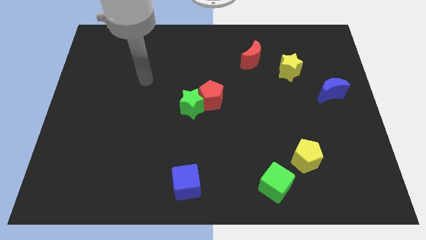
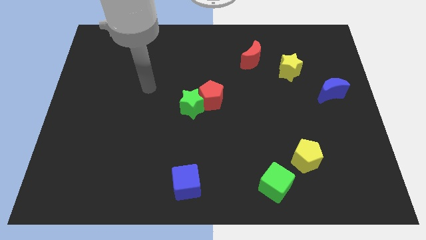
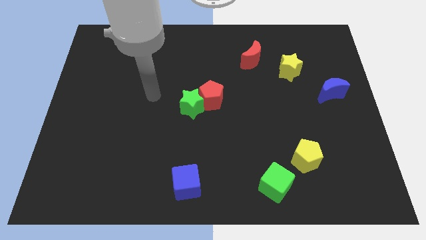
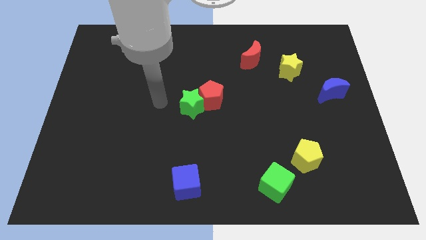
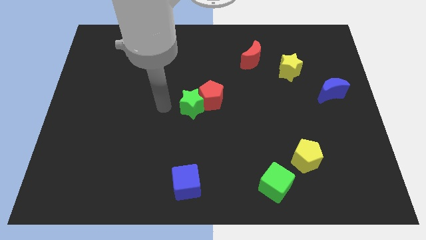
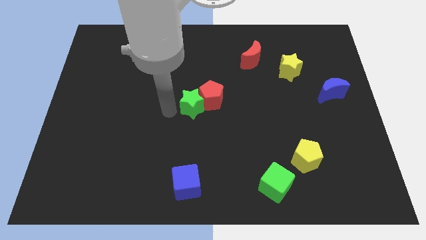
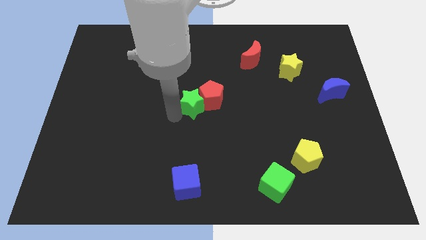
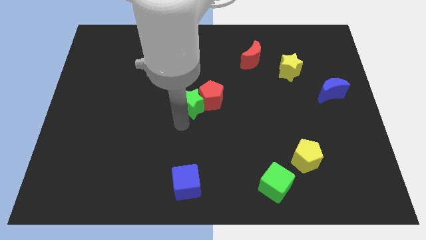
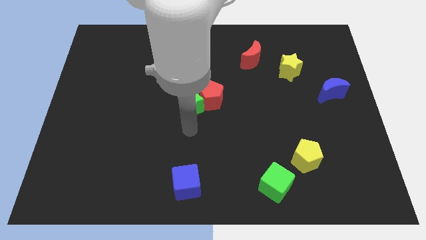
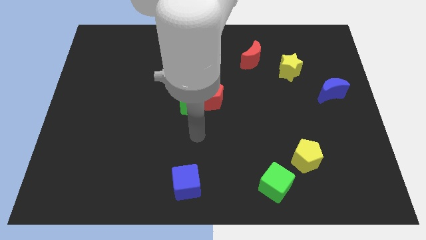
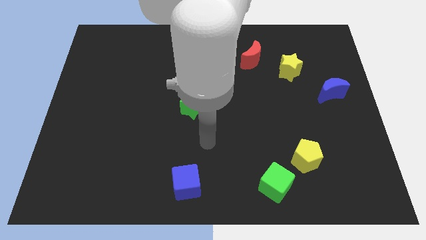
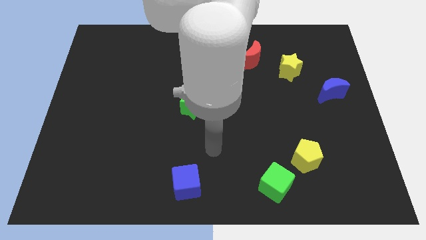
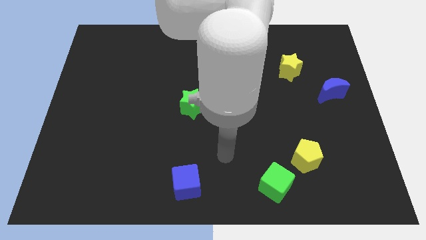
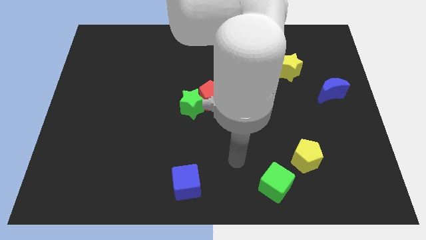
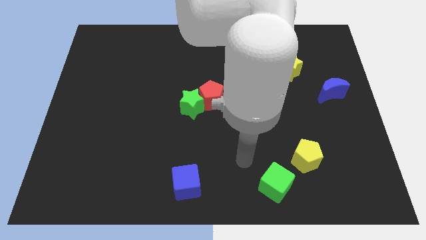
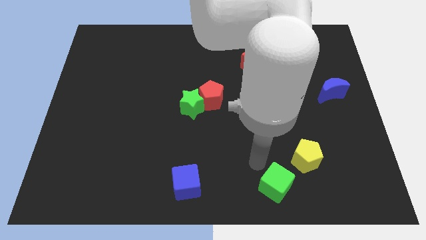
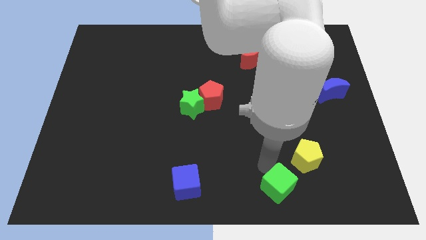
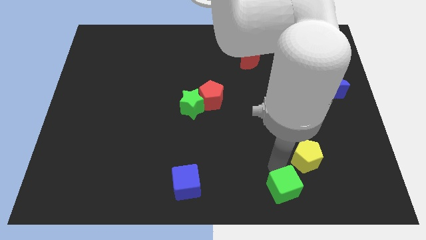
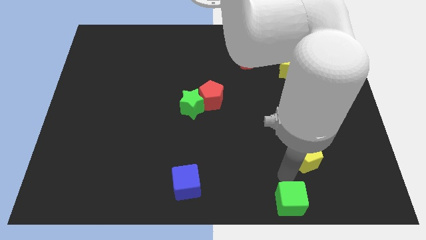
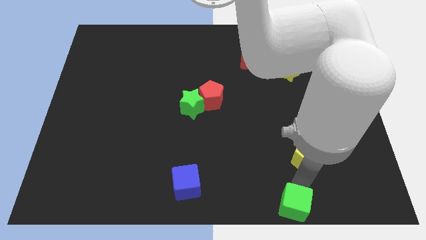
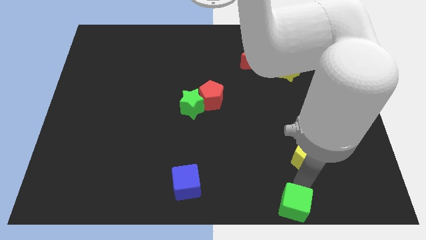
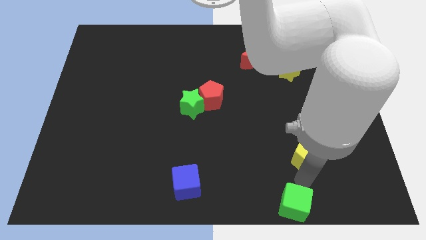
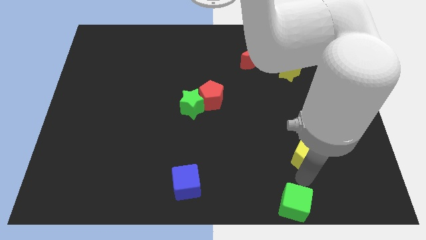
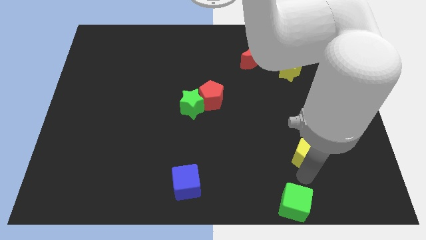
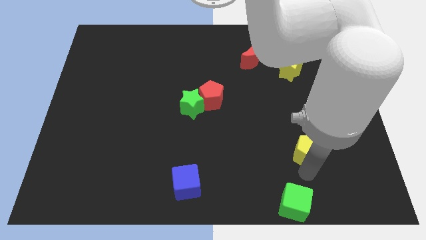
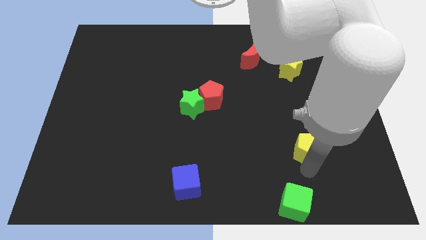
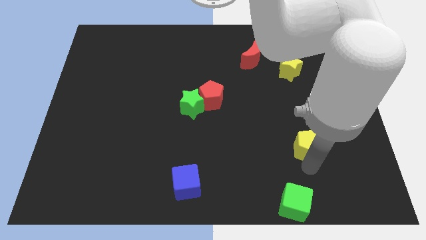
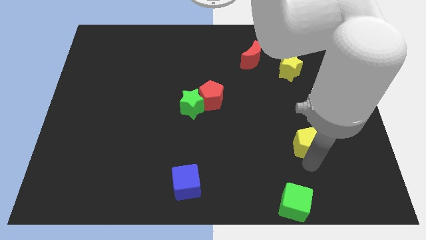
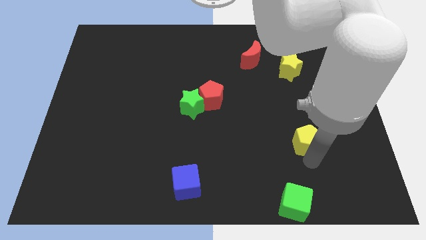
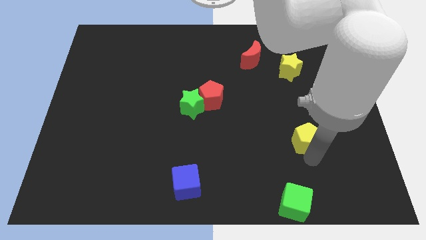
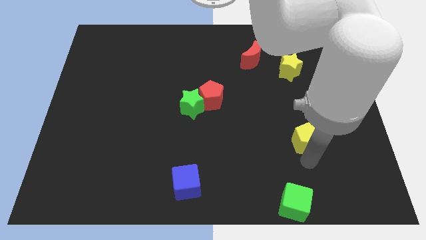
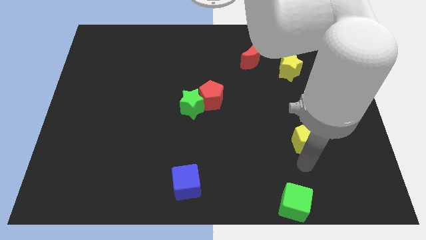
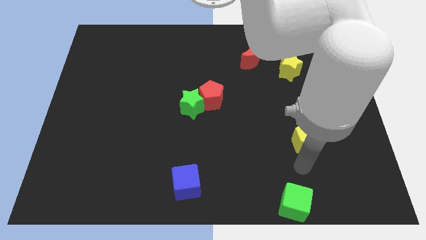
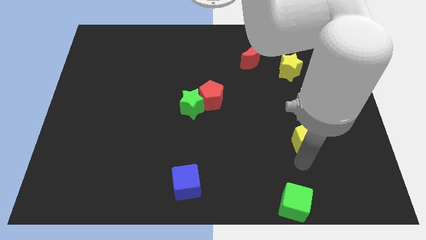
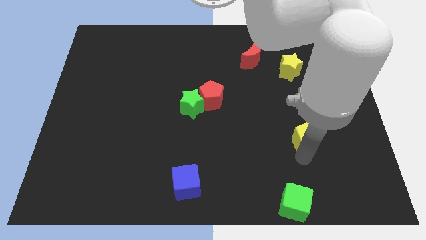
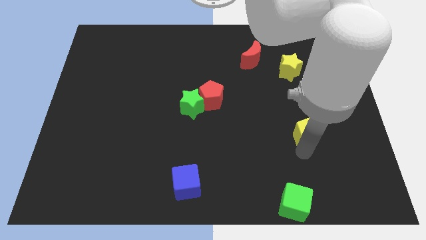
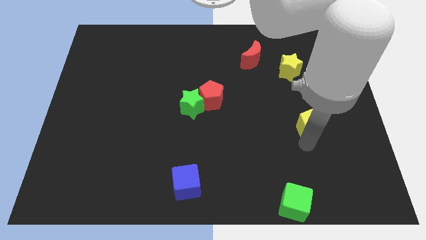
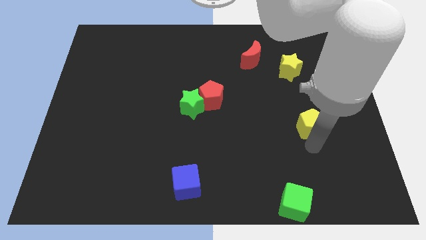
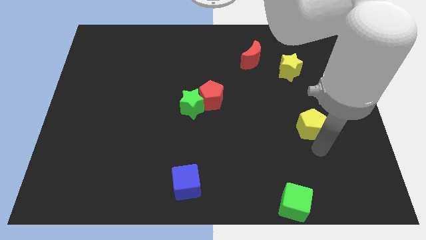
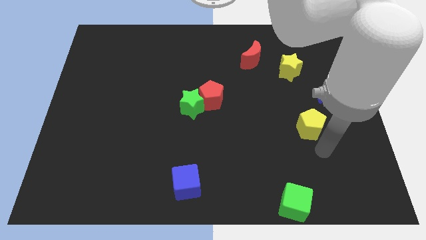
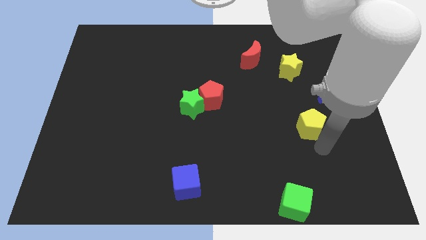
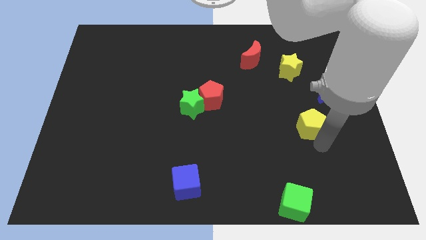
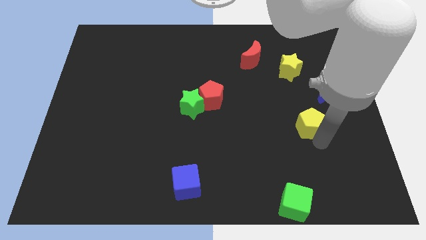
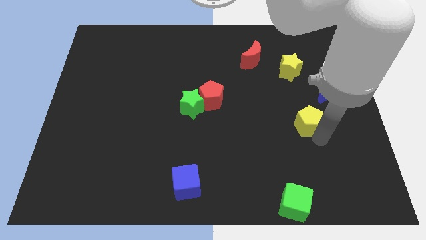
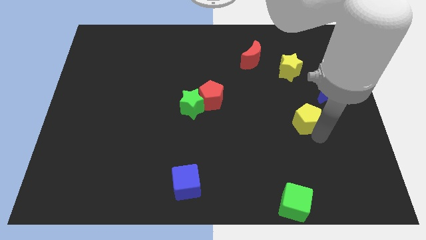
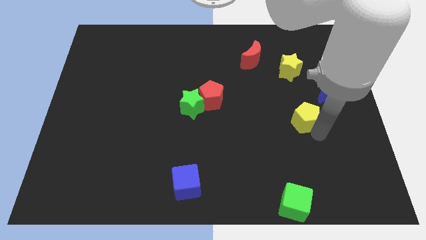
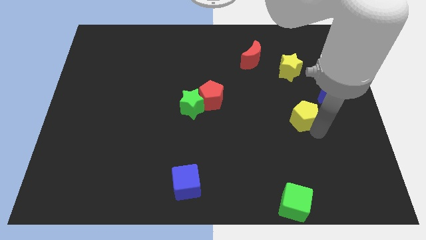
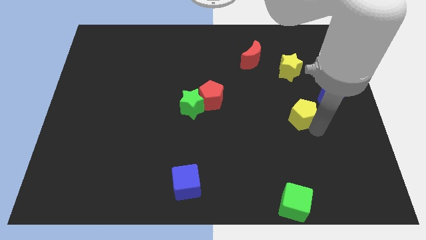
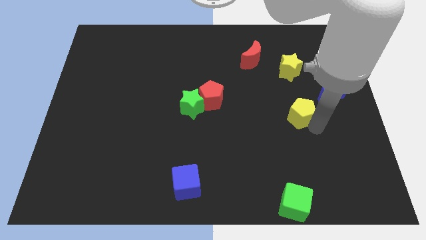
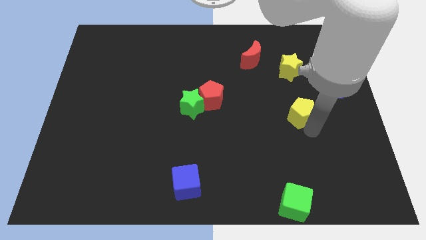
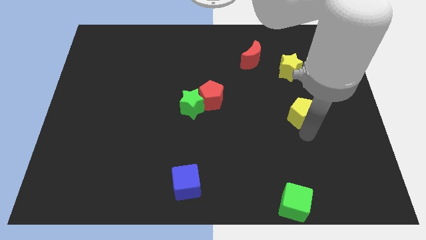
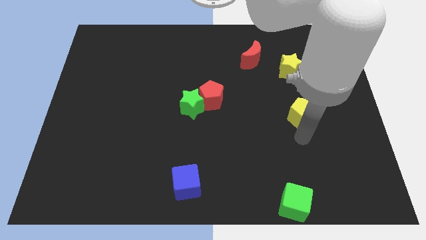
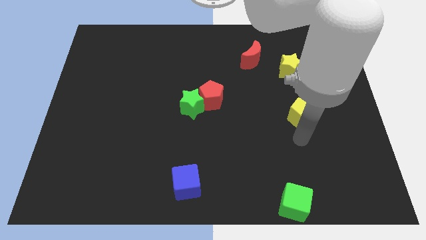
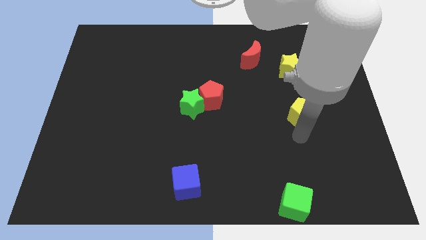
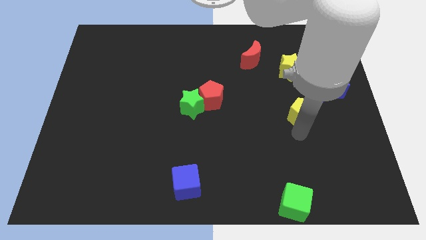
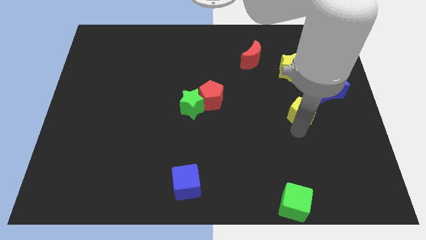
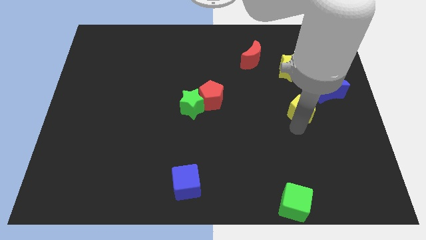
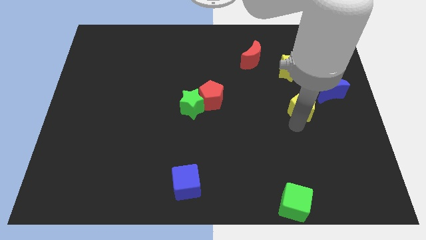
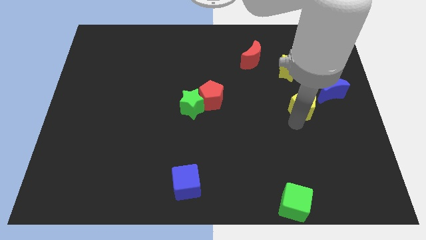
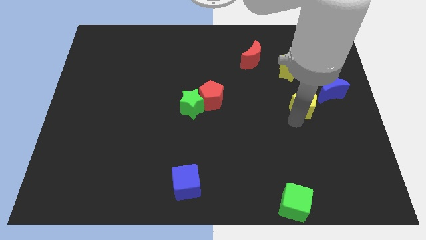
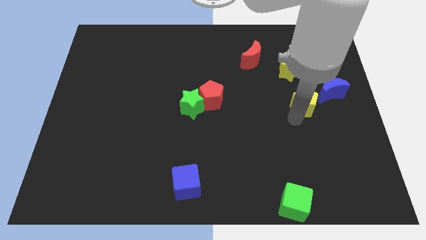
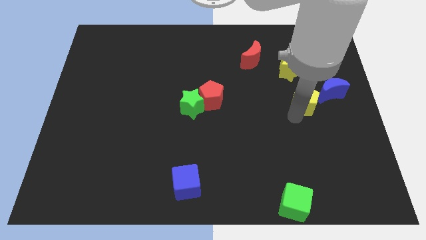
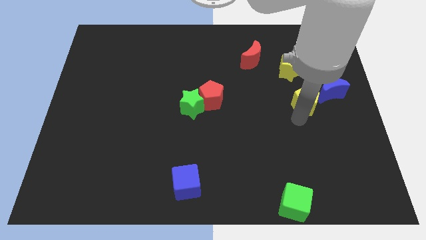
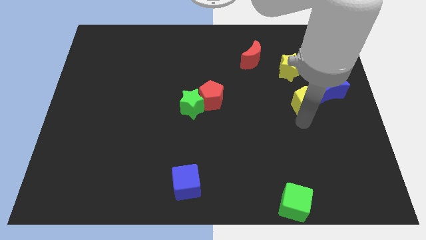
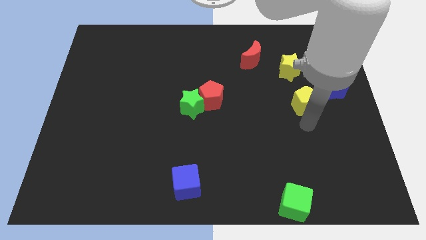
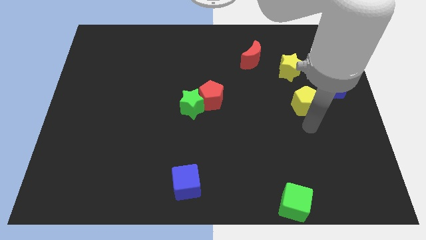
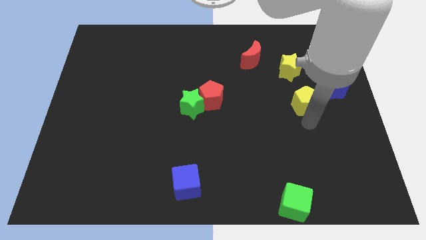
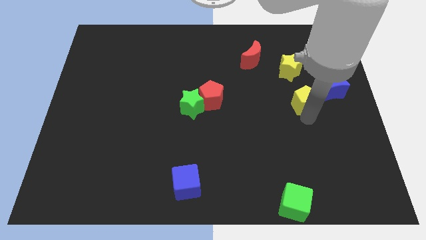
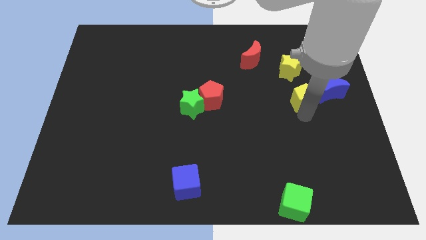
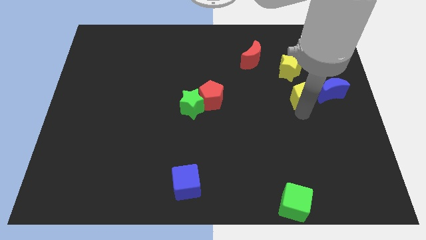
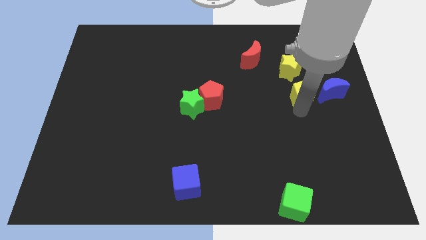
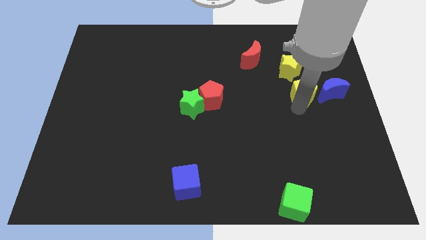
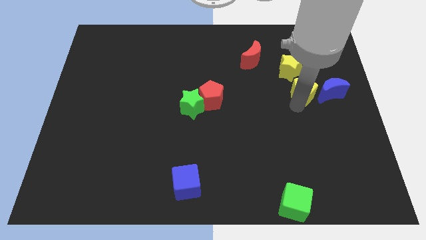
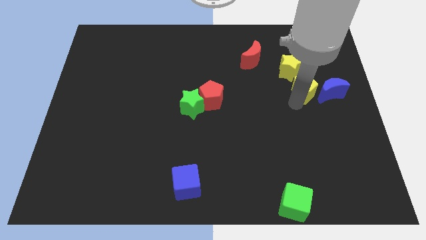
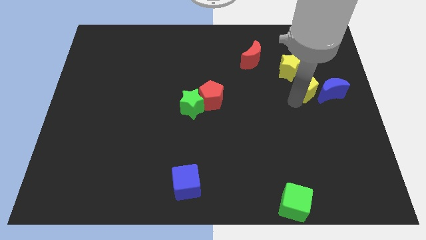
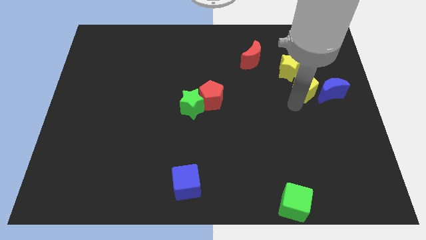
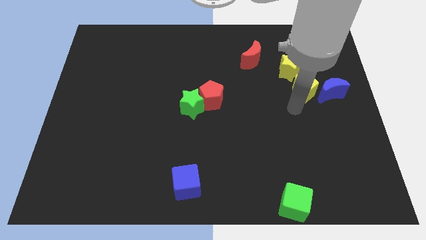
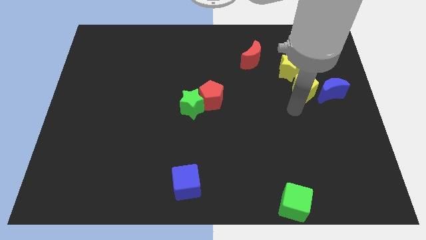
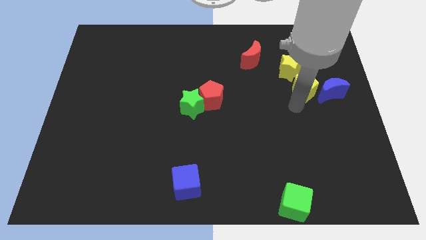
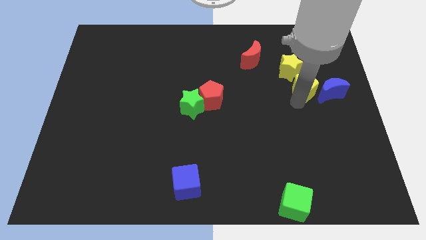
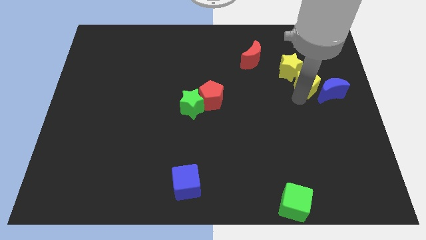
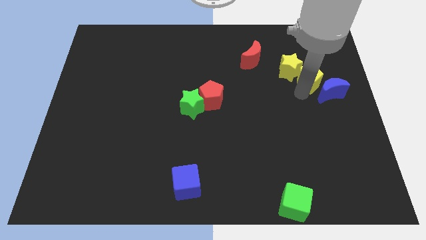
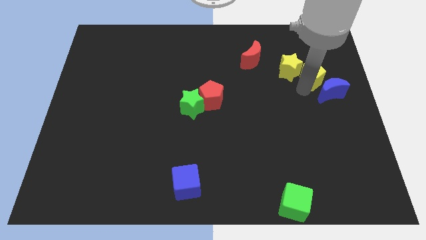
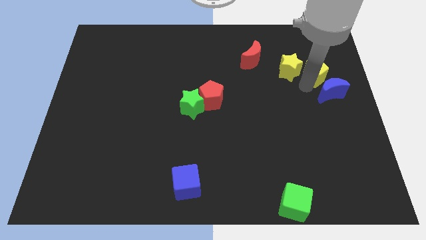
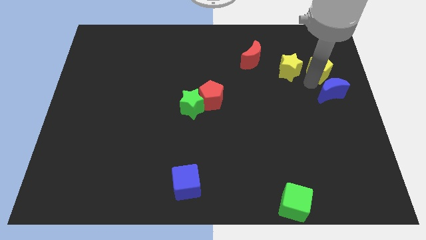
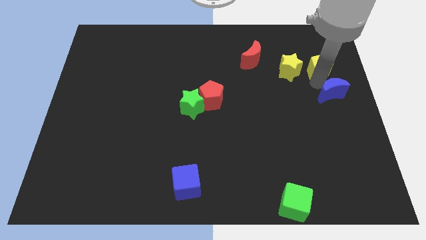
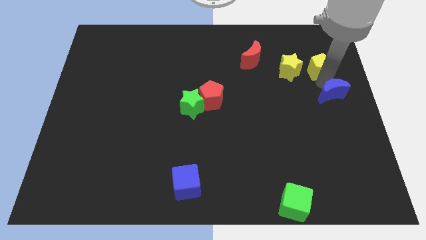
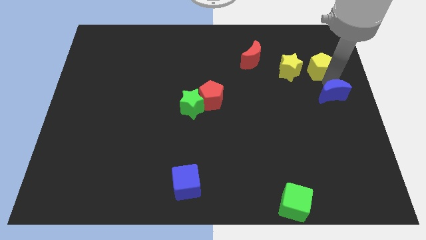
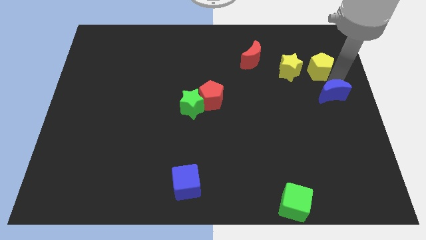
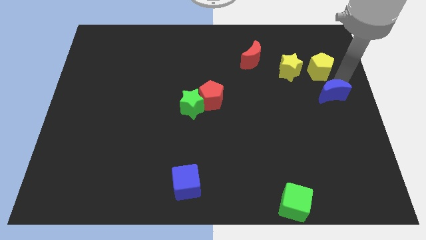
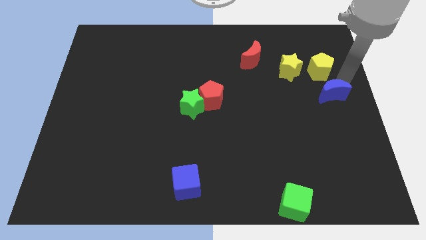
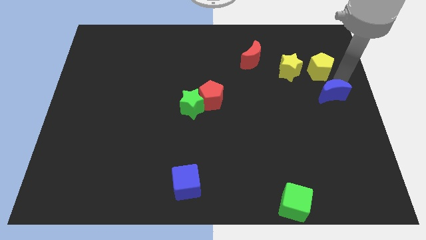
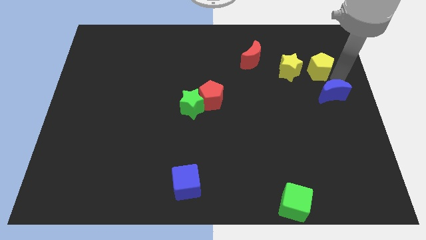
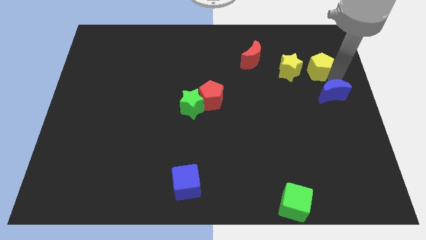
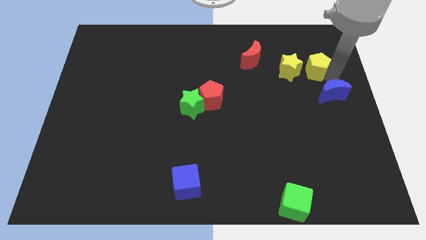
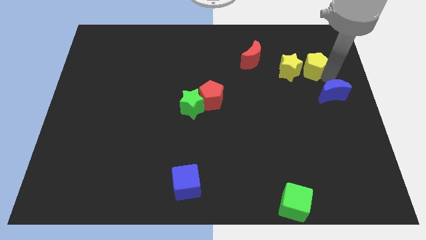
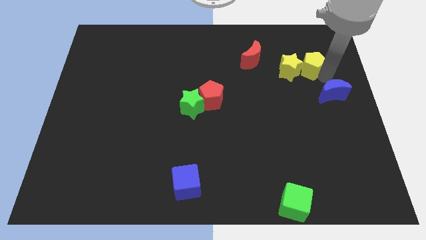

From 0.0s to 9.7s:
slide the yellow pentagon to the right of the red moon
